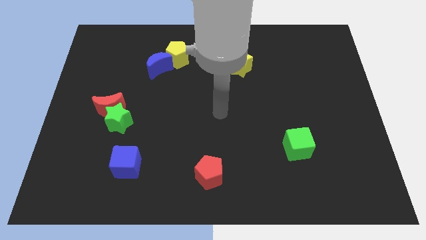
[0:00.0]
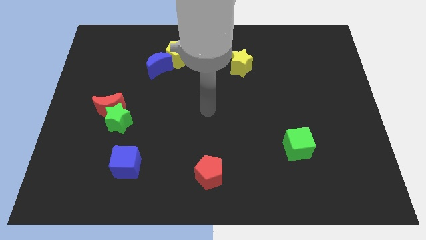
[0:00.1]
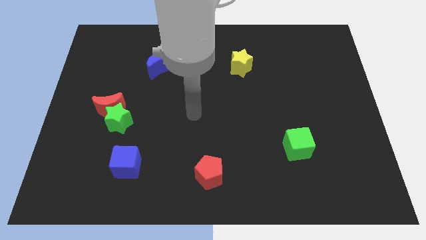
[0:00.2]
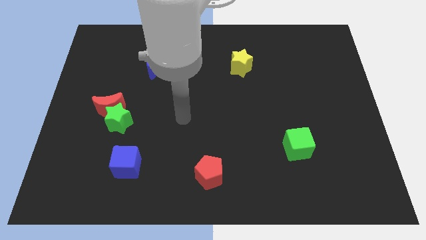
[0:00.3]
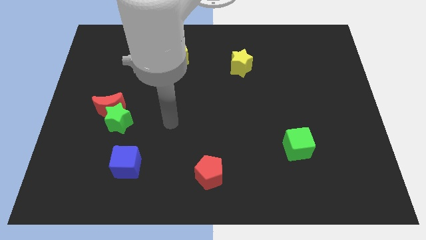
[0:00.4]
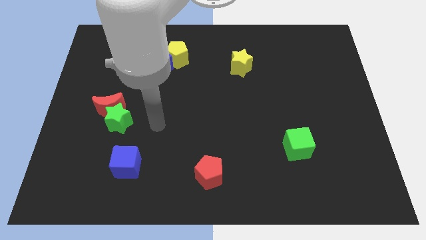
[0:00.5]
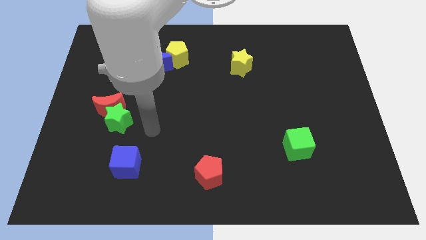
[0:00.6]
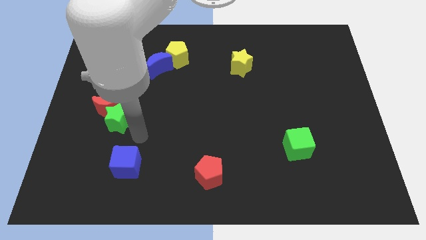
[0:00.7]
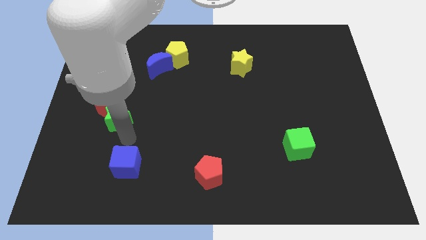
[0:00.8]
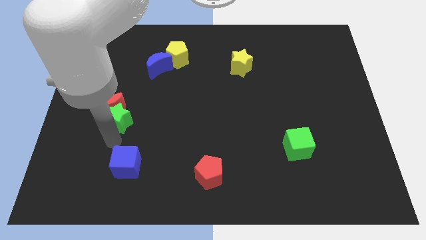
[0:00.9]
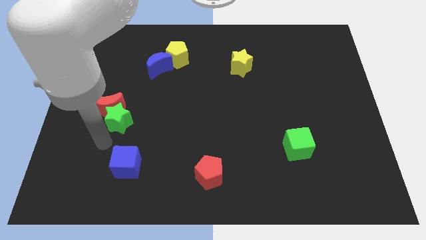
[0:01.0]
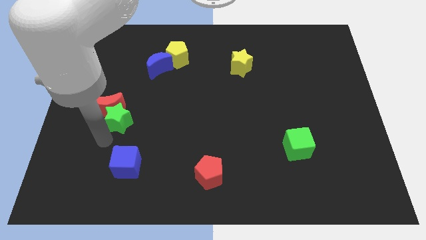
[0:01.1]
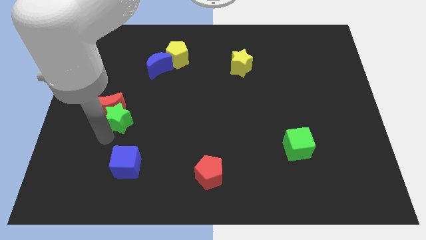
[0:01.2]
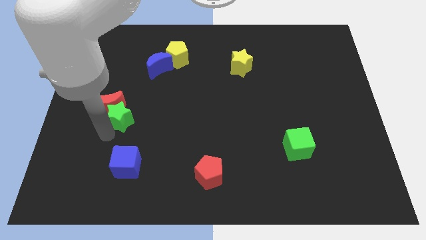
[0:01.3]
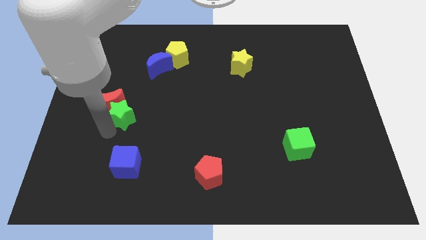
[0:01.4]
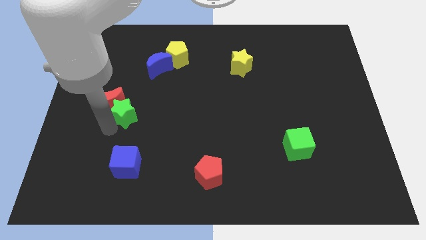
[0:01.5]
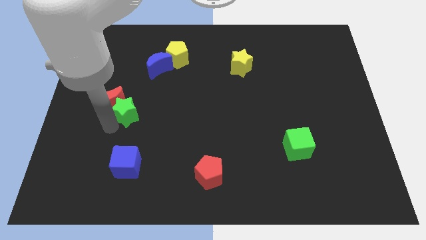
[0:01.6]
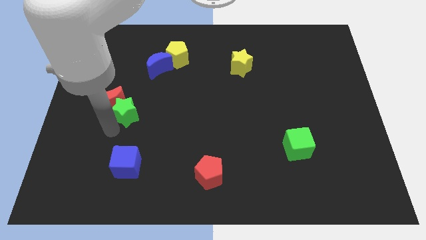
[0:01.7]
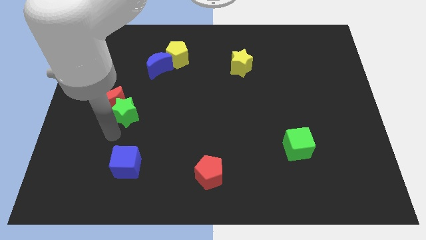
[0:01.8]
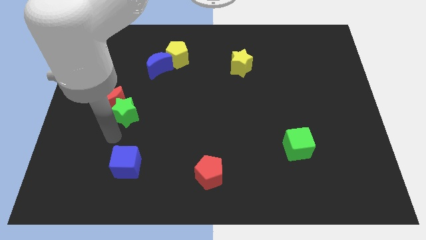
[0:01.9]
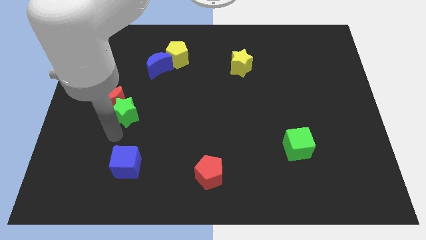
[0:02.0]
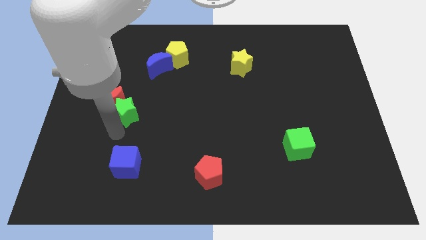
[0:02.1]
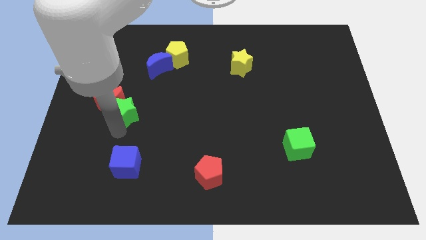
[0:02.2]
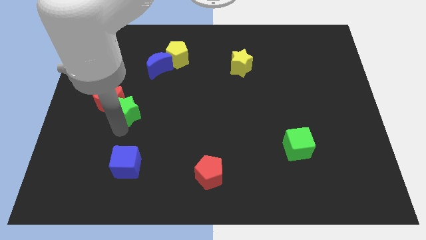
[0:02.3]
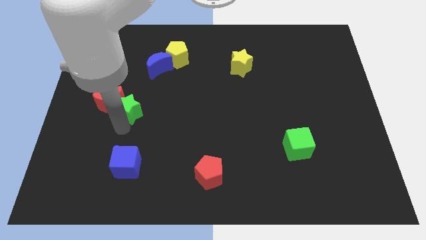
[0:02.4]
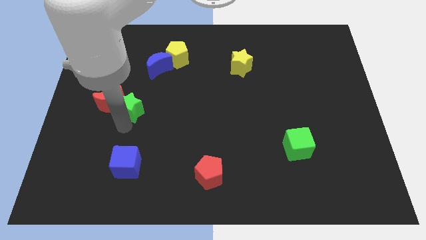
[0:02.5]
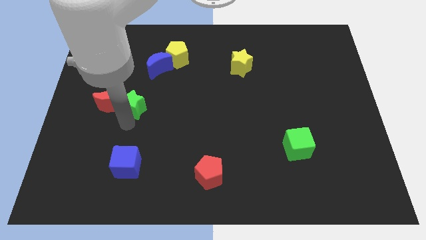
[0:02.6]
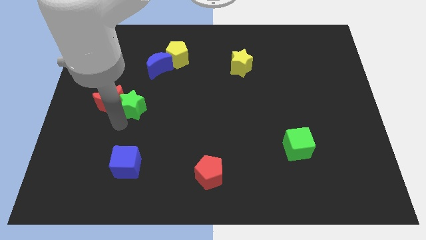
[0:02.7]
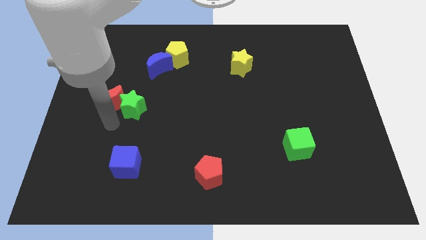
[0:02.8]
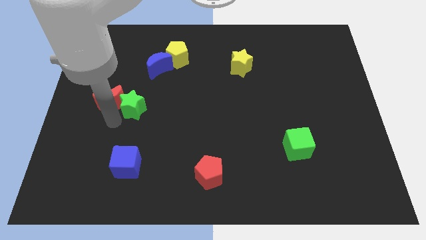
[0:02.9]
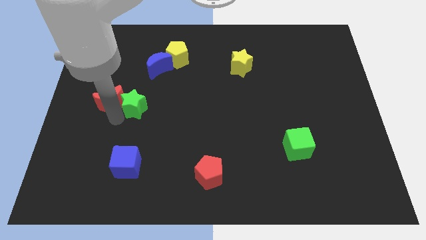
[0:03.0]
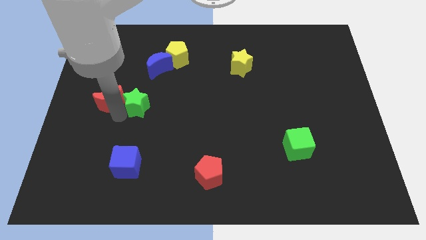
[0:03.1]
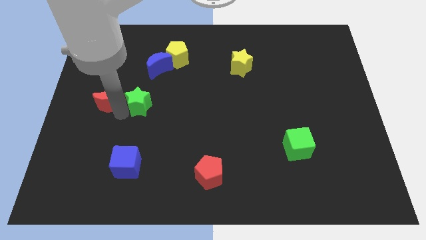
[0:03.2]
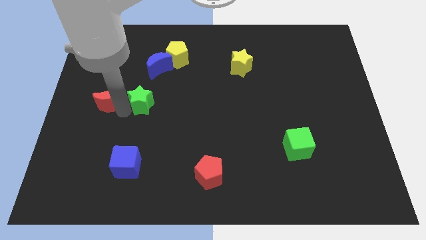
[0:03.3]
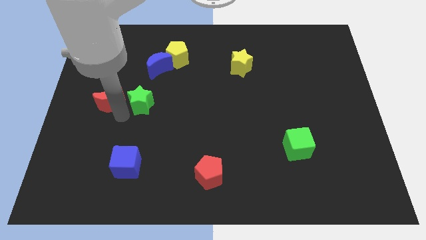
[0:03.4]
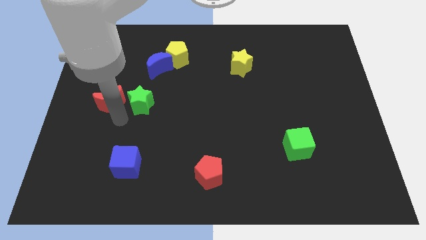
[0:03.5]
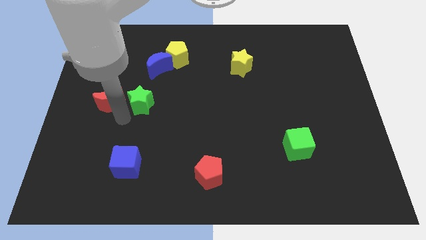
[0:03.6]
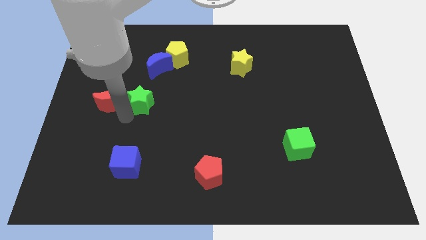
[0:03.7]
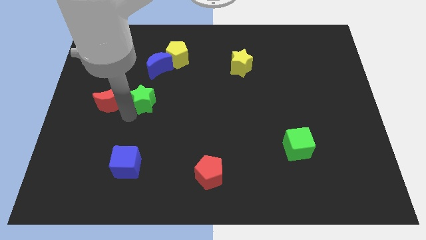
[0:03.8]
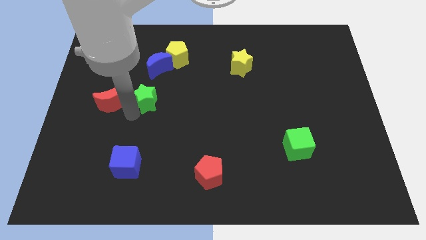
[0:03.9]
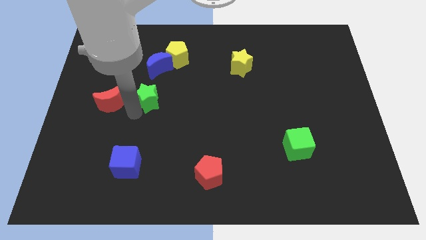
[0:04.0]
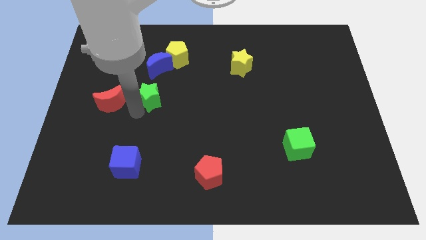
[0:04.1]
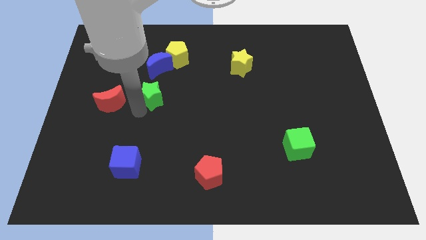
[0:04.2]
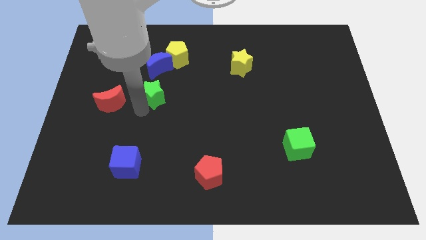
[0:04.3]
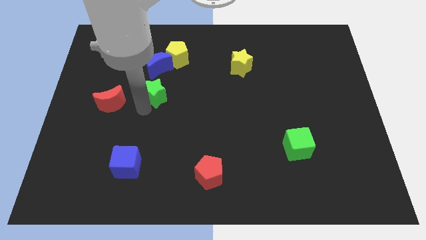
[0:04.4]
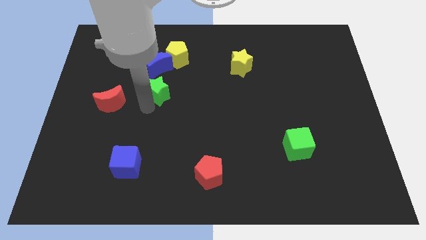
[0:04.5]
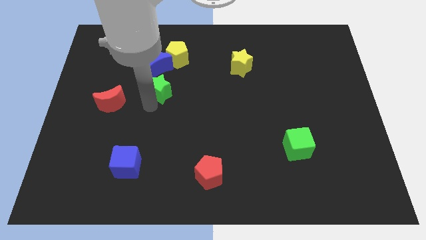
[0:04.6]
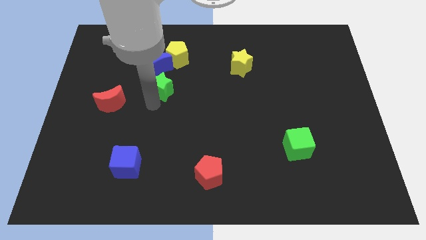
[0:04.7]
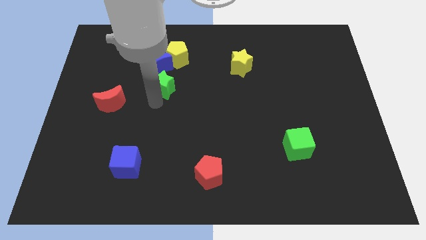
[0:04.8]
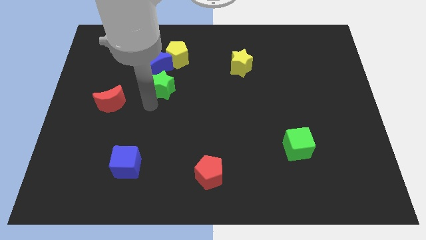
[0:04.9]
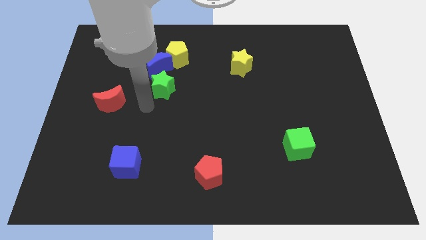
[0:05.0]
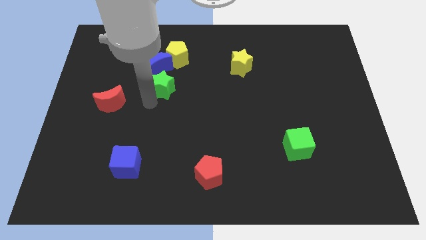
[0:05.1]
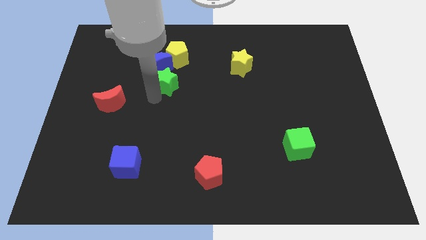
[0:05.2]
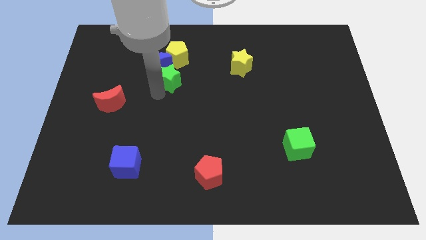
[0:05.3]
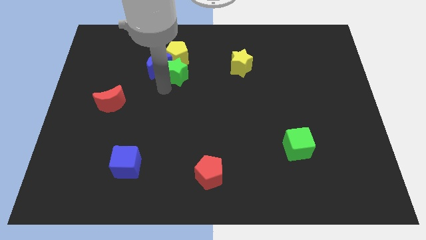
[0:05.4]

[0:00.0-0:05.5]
slide the green star towards the yellow pentagon

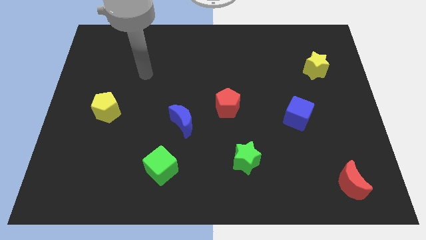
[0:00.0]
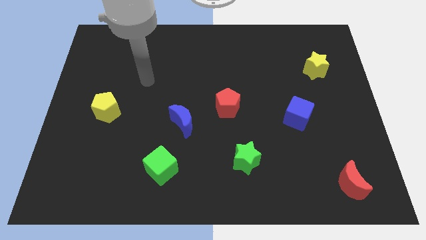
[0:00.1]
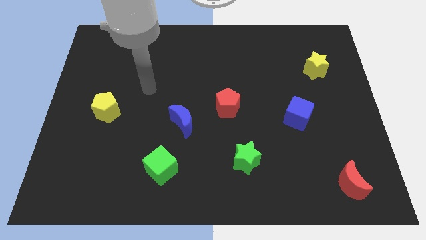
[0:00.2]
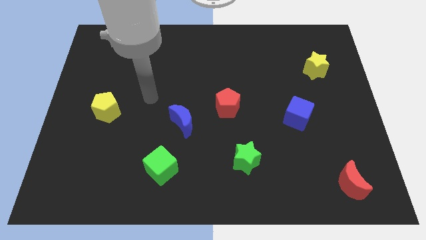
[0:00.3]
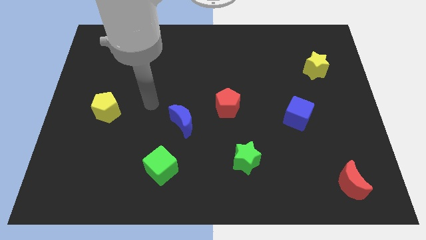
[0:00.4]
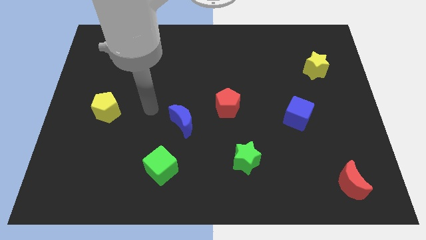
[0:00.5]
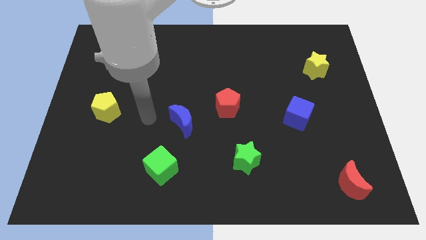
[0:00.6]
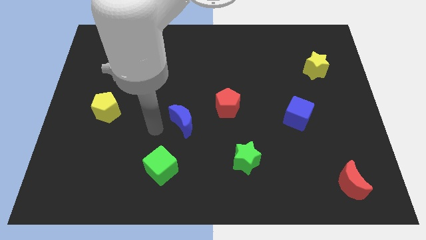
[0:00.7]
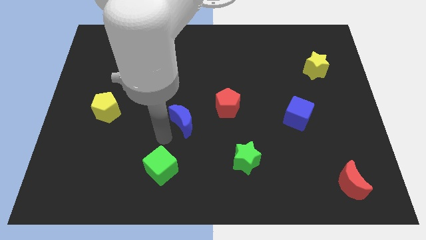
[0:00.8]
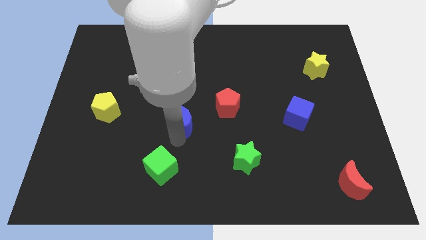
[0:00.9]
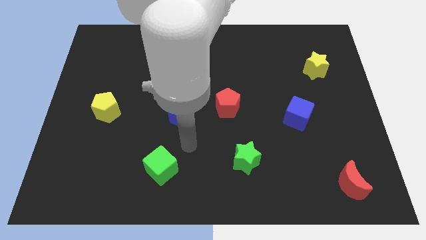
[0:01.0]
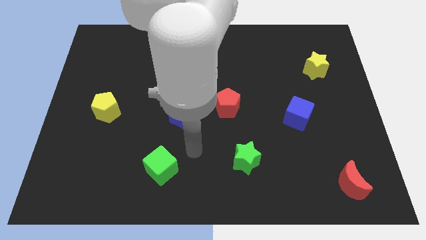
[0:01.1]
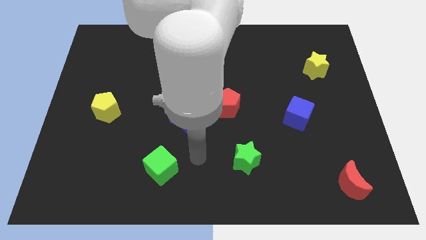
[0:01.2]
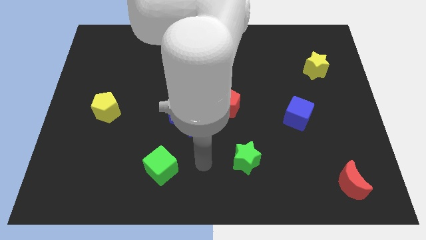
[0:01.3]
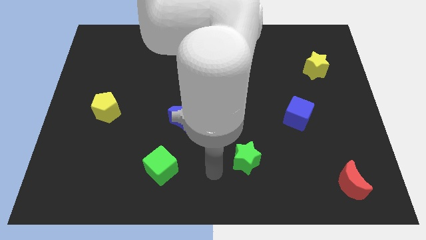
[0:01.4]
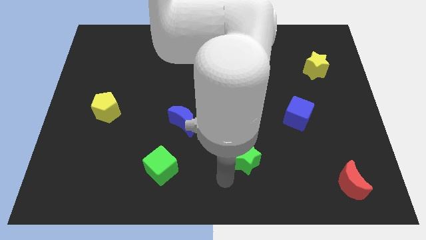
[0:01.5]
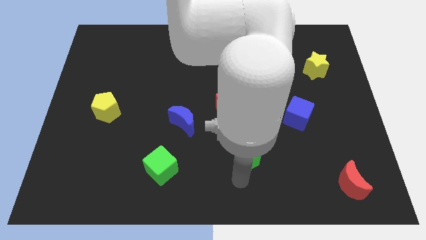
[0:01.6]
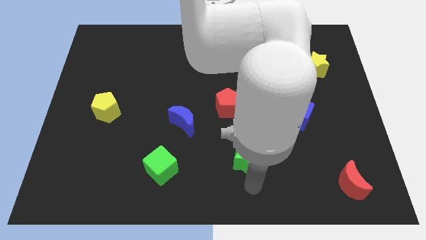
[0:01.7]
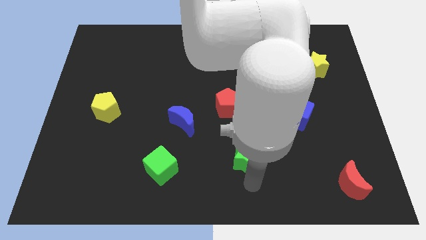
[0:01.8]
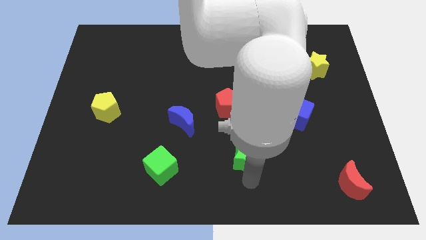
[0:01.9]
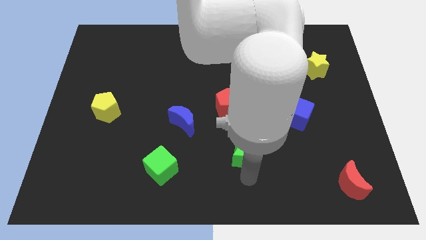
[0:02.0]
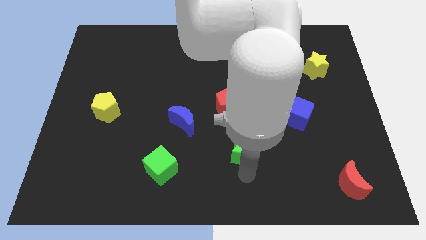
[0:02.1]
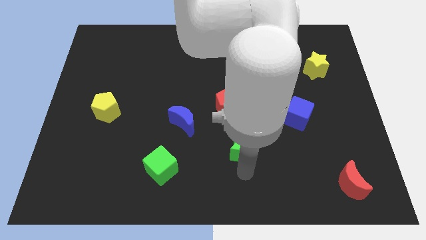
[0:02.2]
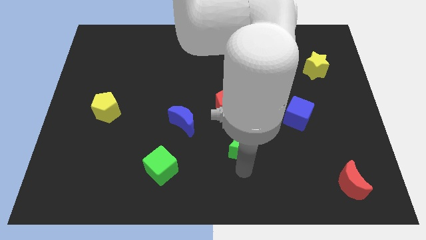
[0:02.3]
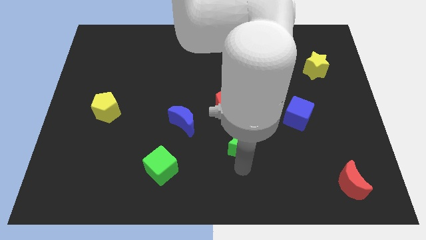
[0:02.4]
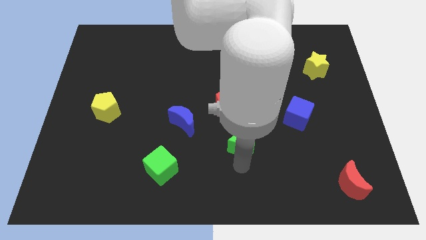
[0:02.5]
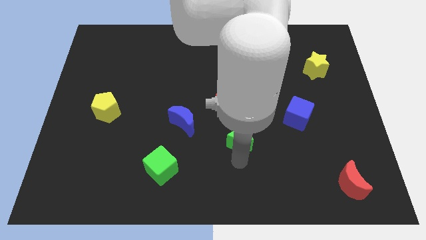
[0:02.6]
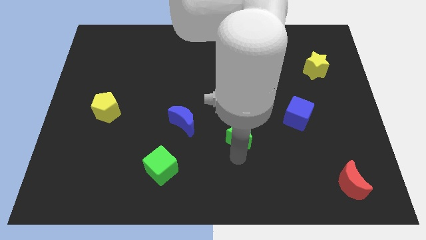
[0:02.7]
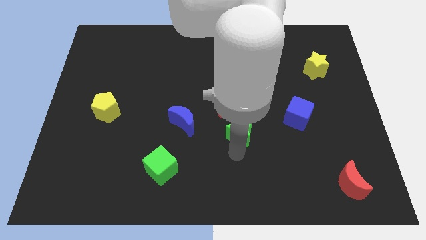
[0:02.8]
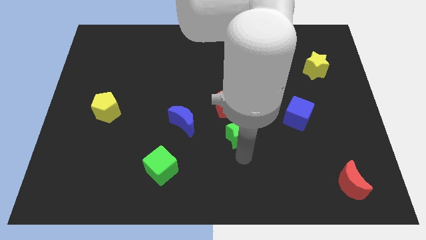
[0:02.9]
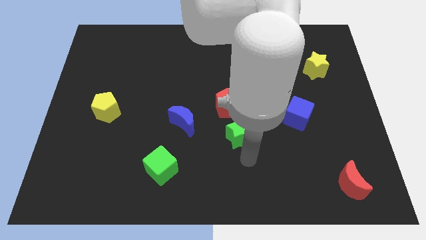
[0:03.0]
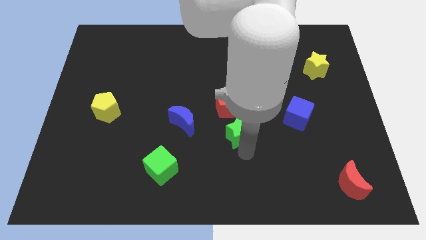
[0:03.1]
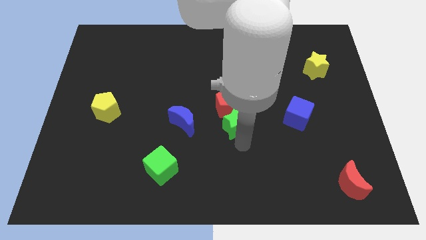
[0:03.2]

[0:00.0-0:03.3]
push the green star to the red pentagon
